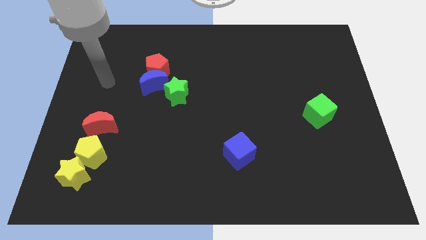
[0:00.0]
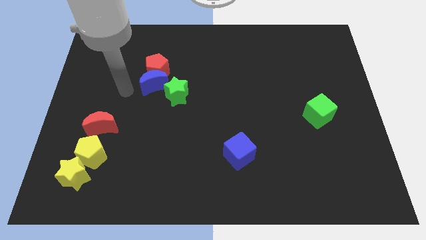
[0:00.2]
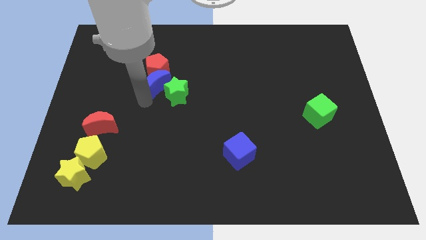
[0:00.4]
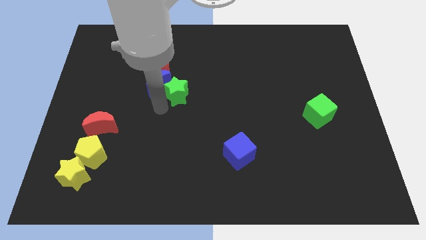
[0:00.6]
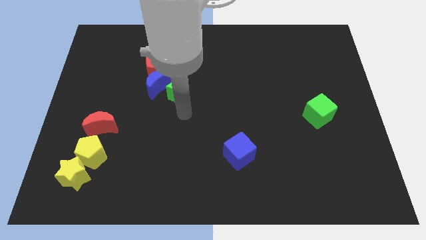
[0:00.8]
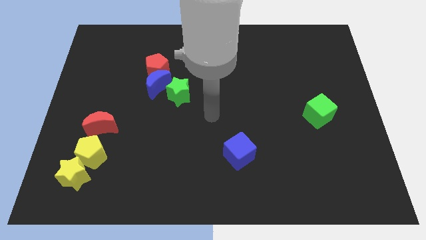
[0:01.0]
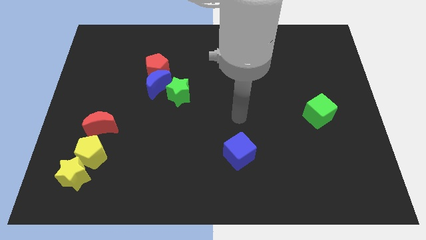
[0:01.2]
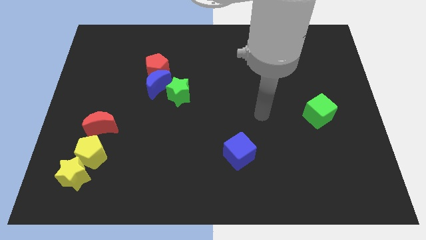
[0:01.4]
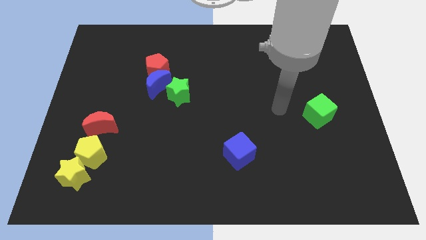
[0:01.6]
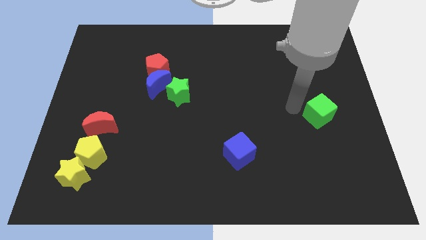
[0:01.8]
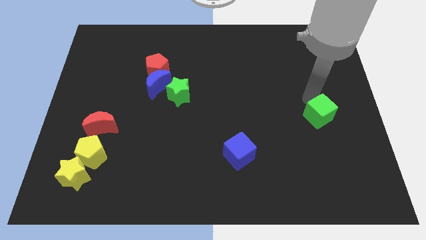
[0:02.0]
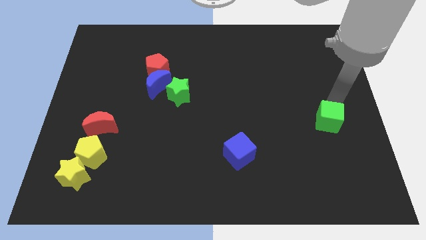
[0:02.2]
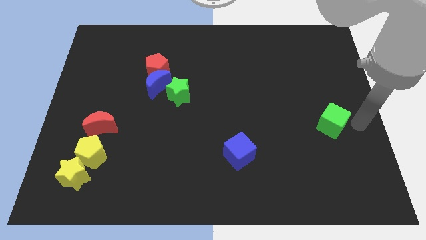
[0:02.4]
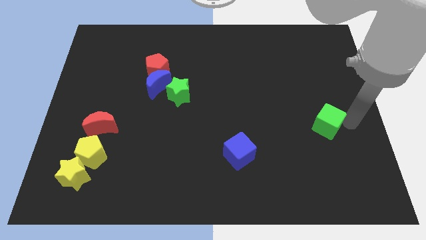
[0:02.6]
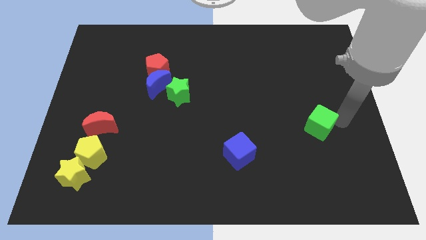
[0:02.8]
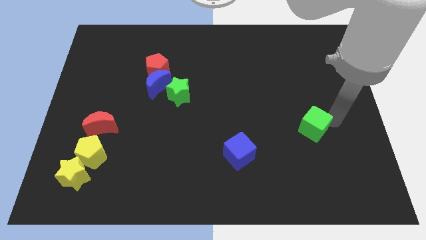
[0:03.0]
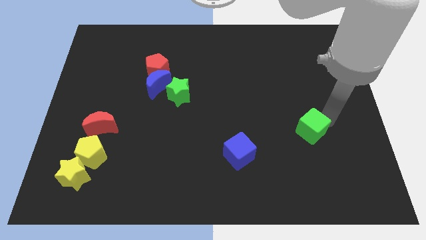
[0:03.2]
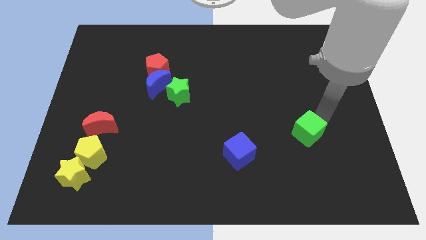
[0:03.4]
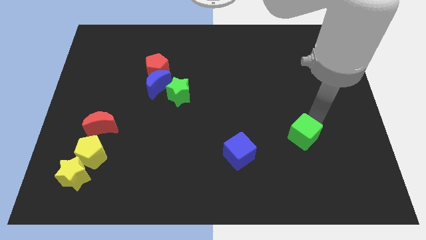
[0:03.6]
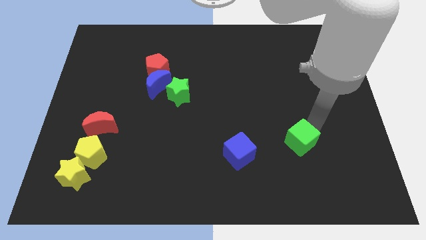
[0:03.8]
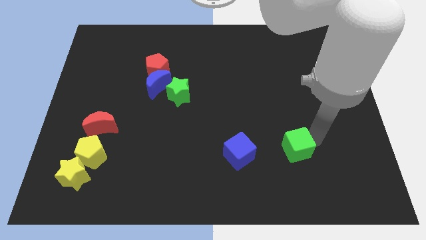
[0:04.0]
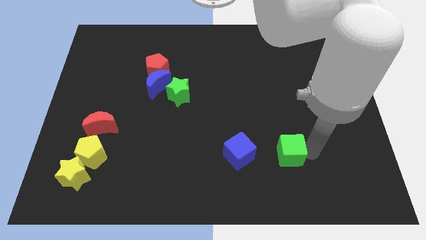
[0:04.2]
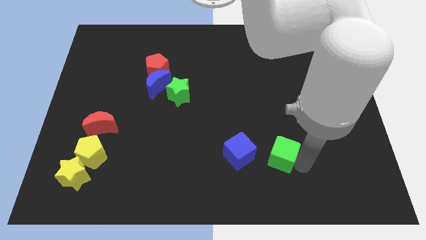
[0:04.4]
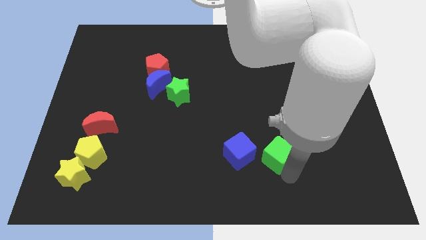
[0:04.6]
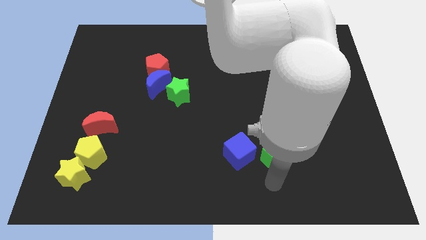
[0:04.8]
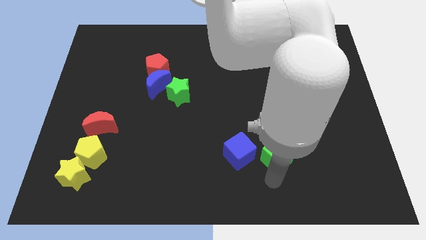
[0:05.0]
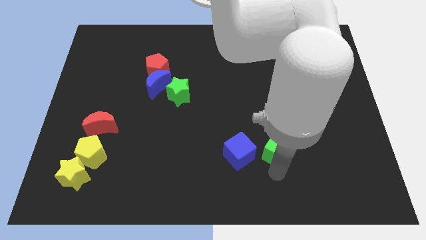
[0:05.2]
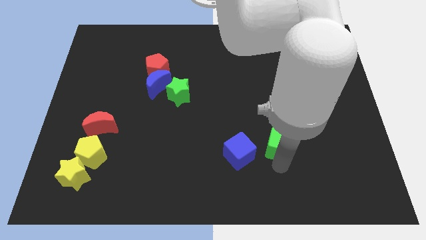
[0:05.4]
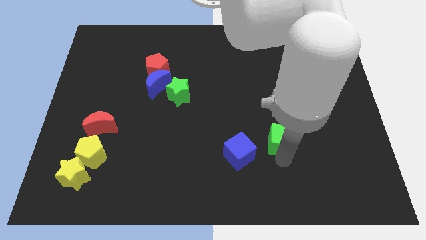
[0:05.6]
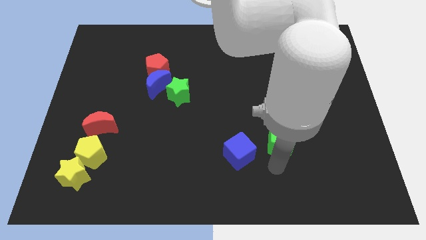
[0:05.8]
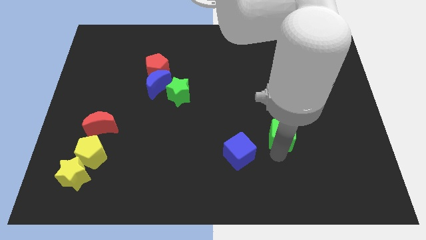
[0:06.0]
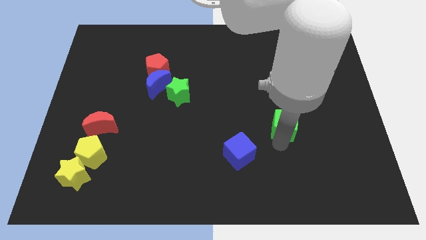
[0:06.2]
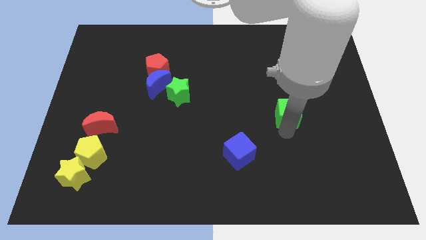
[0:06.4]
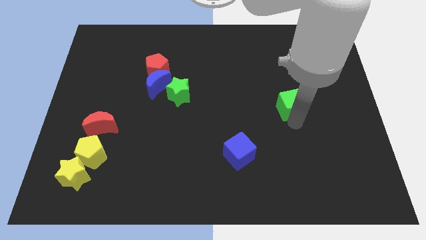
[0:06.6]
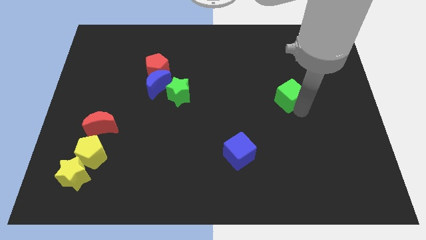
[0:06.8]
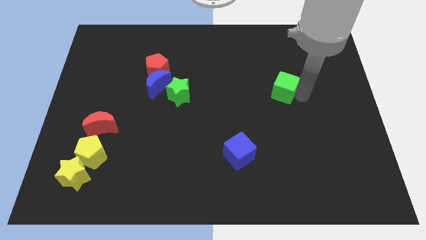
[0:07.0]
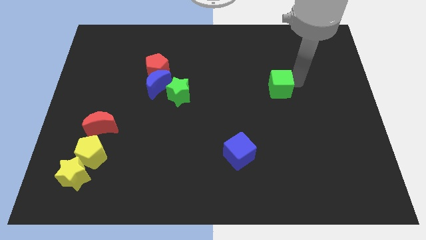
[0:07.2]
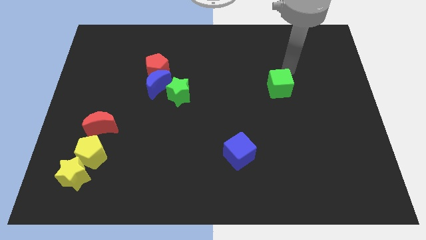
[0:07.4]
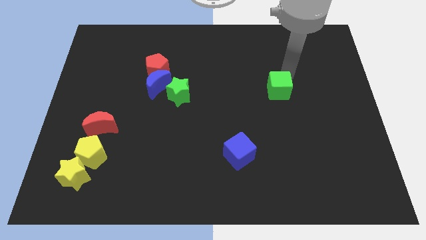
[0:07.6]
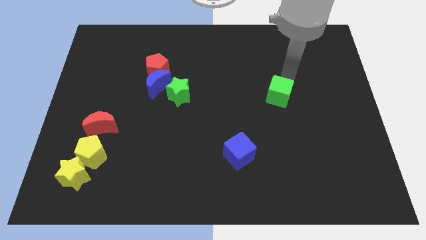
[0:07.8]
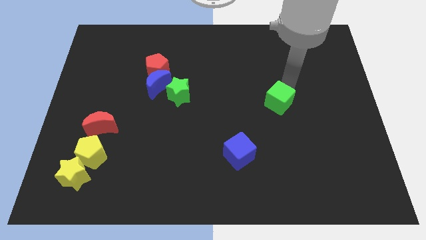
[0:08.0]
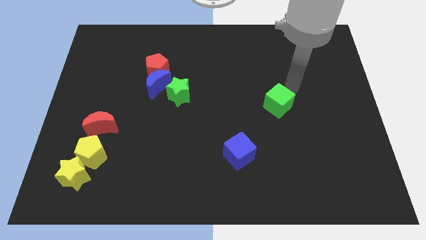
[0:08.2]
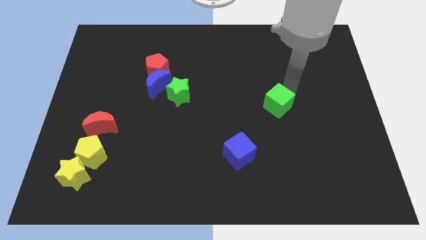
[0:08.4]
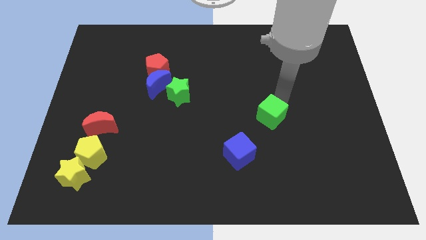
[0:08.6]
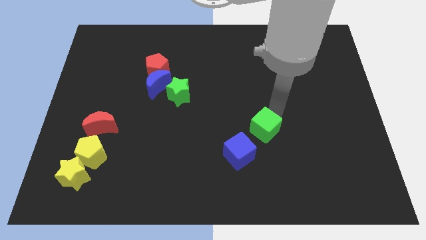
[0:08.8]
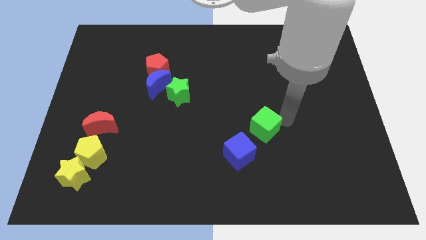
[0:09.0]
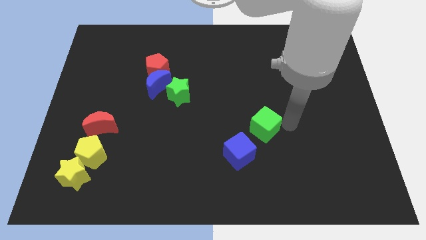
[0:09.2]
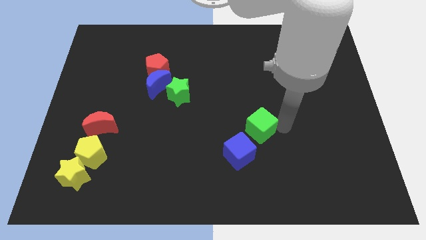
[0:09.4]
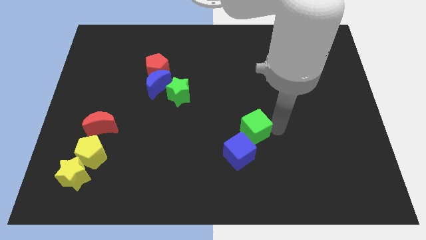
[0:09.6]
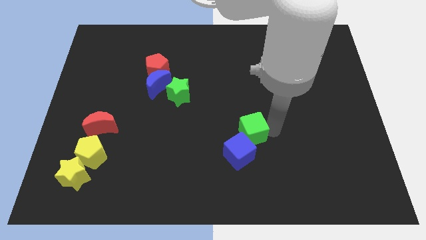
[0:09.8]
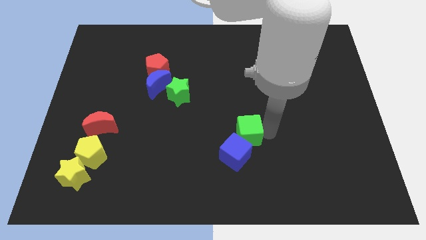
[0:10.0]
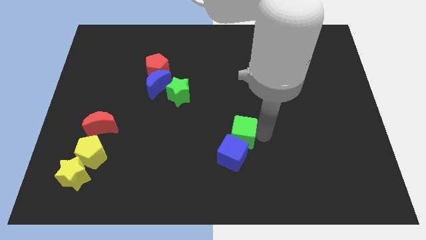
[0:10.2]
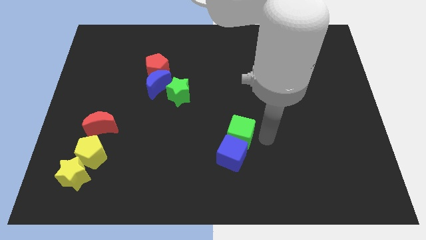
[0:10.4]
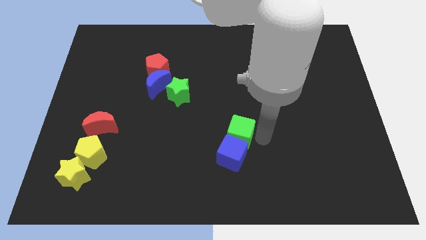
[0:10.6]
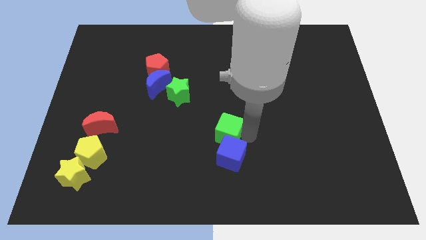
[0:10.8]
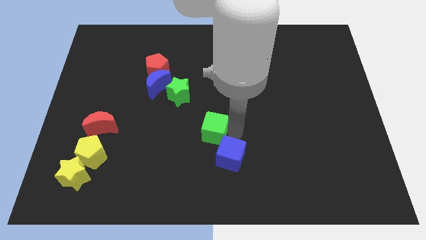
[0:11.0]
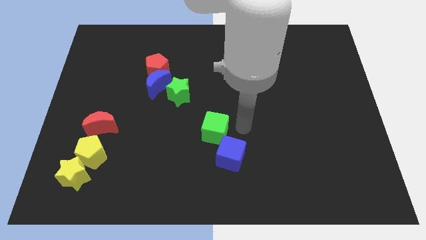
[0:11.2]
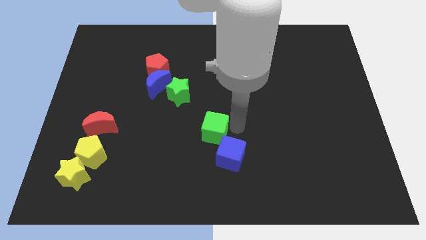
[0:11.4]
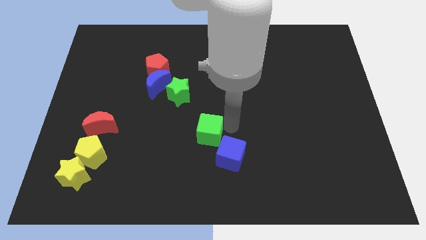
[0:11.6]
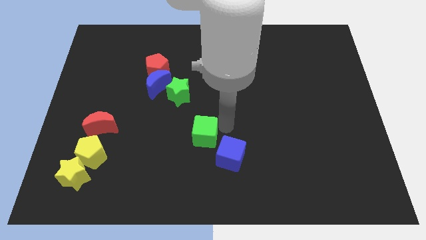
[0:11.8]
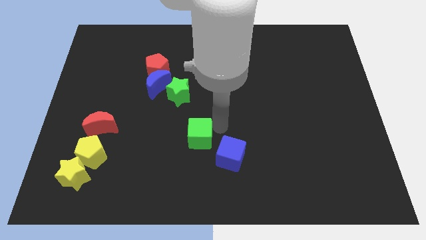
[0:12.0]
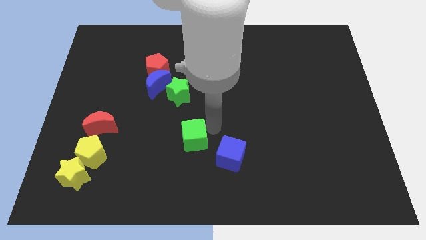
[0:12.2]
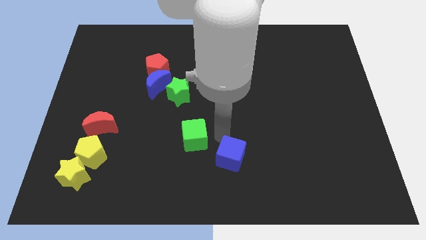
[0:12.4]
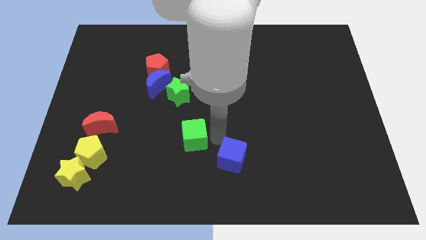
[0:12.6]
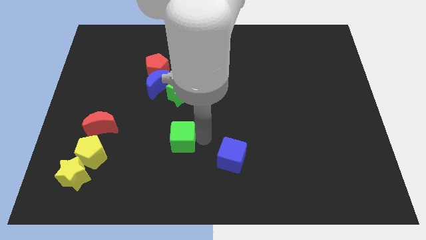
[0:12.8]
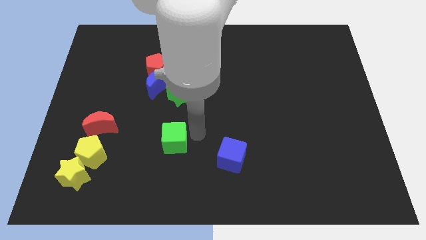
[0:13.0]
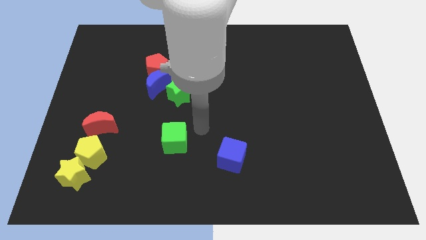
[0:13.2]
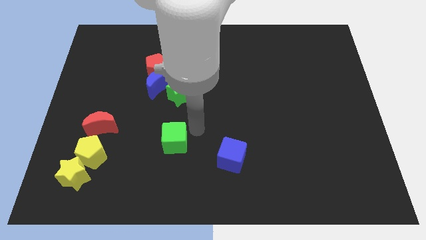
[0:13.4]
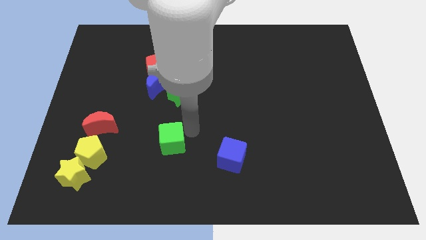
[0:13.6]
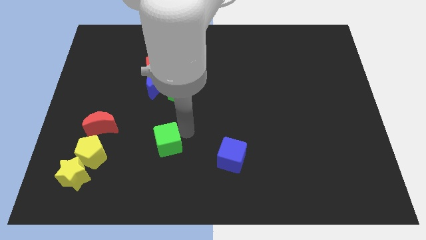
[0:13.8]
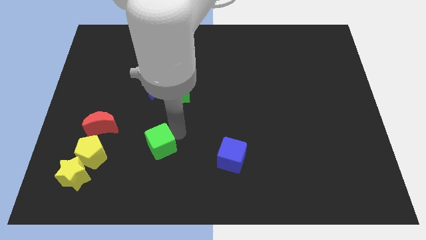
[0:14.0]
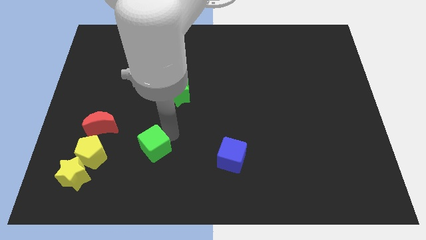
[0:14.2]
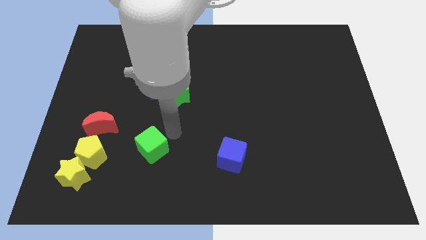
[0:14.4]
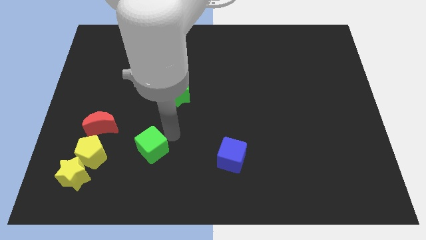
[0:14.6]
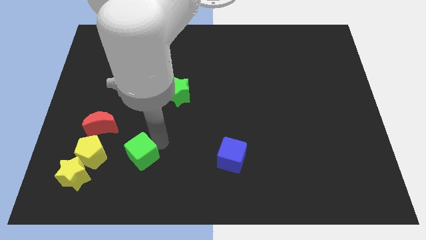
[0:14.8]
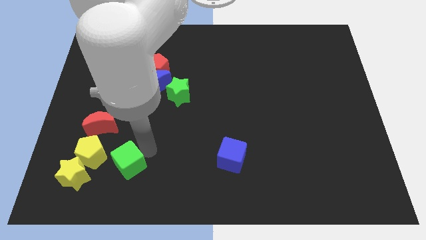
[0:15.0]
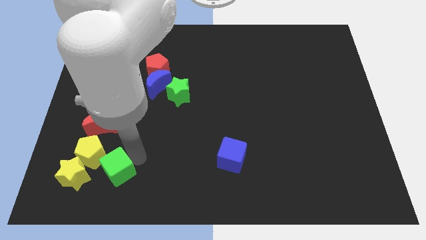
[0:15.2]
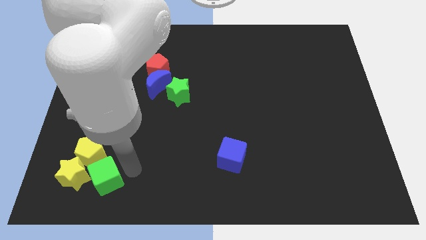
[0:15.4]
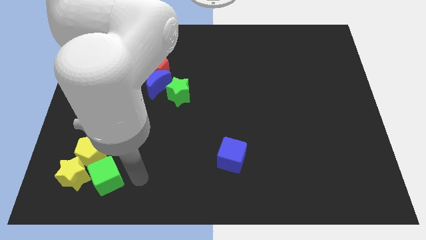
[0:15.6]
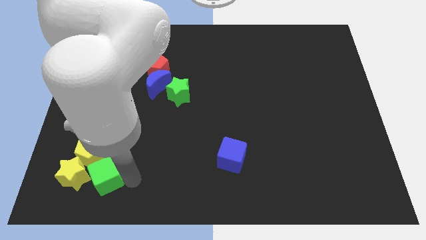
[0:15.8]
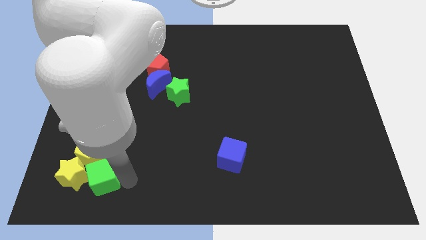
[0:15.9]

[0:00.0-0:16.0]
slide the green cube close to the yellow star
